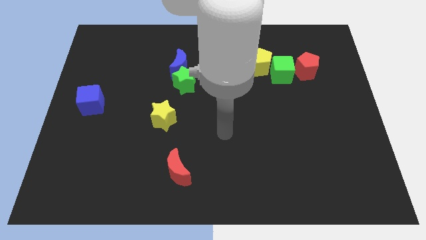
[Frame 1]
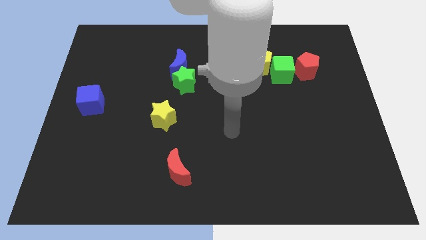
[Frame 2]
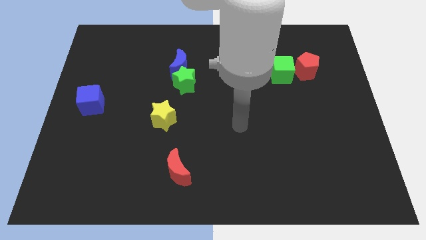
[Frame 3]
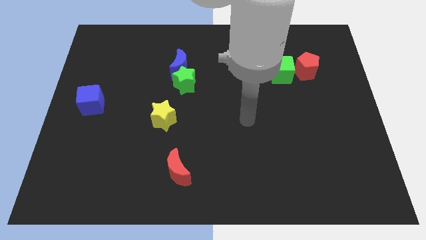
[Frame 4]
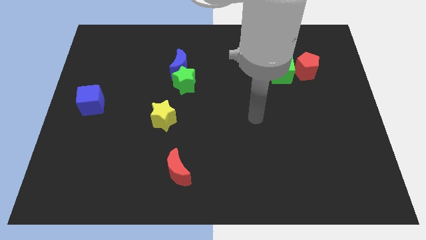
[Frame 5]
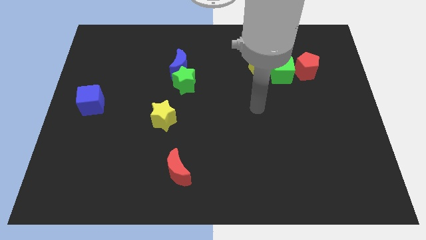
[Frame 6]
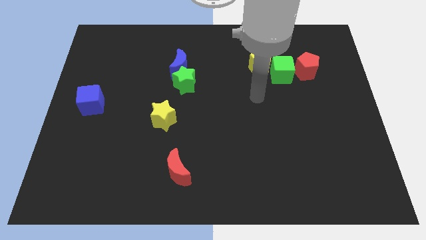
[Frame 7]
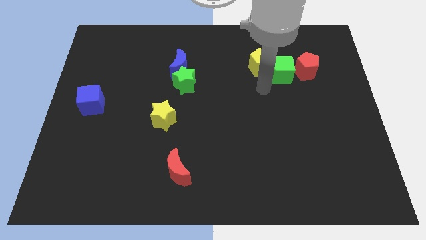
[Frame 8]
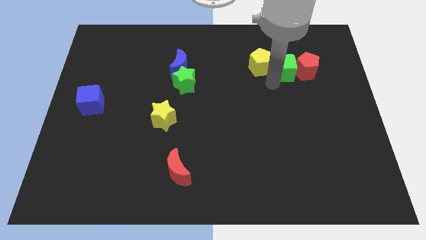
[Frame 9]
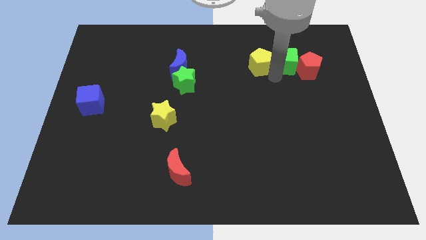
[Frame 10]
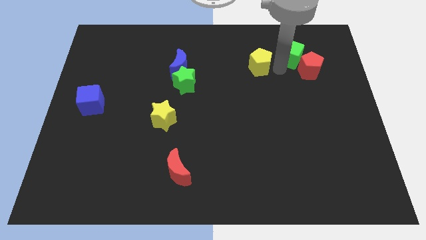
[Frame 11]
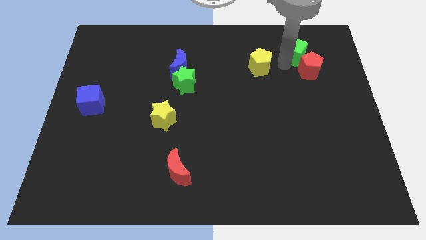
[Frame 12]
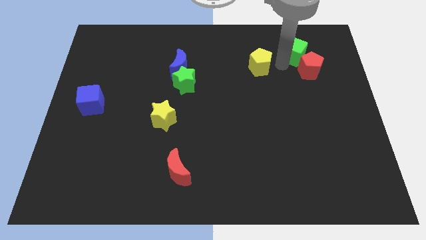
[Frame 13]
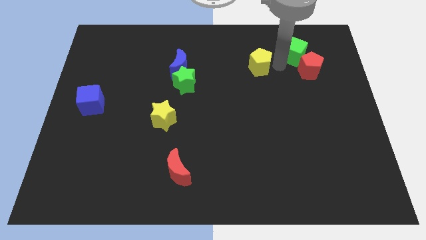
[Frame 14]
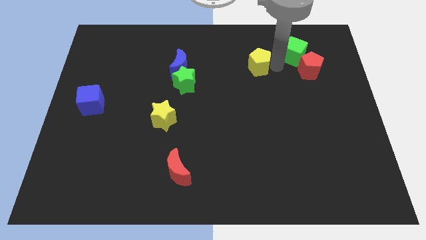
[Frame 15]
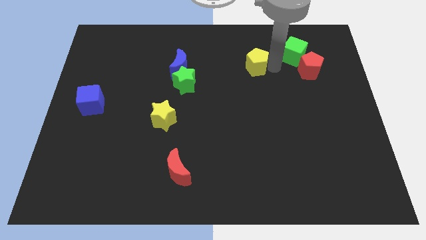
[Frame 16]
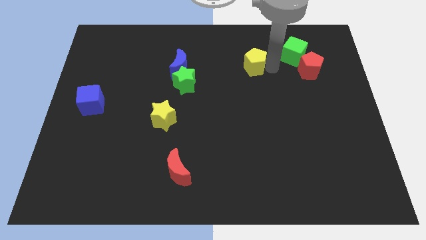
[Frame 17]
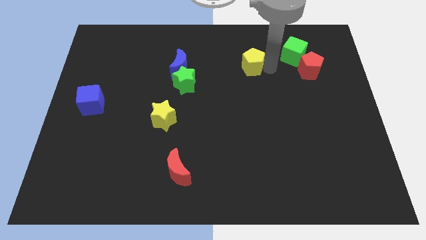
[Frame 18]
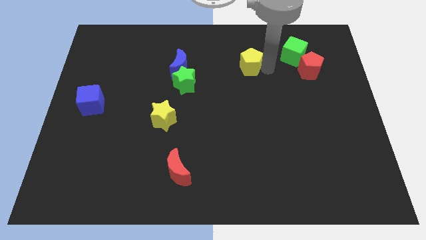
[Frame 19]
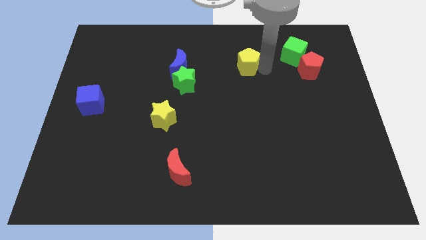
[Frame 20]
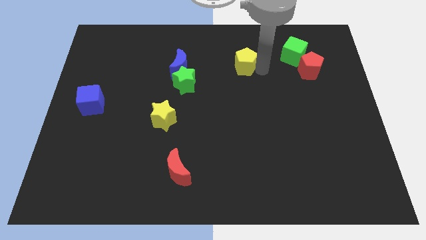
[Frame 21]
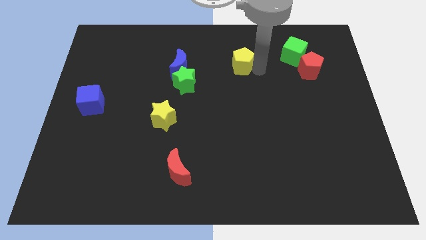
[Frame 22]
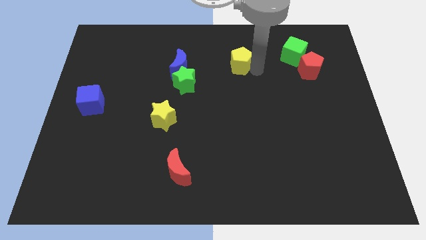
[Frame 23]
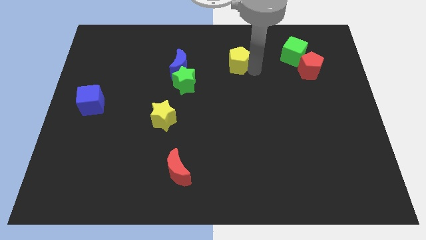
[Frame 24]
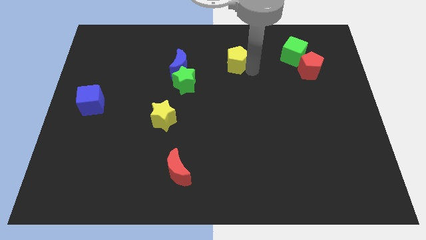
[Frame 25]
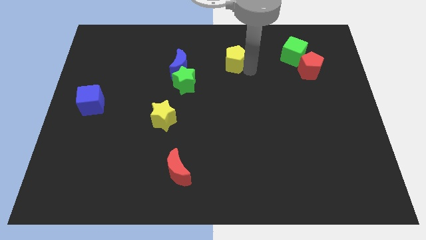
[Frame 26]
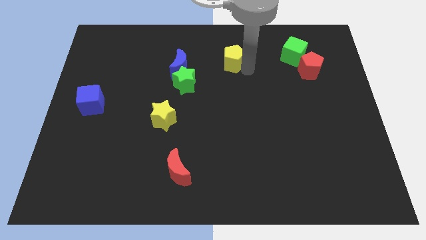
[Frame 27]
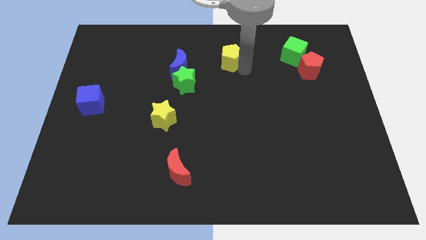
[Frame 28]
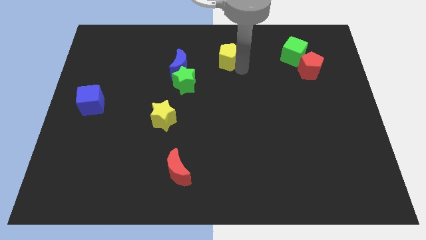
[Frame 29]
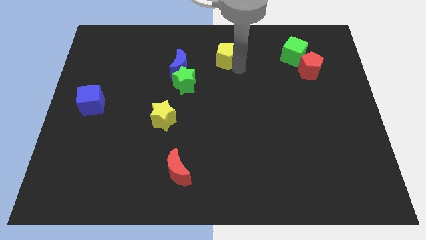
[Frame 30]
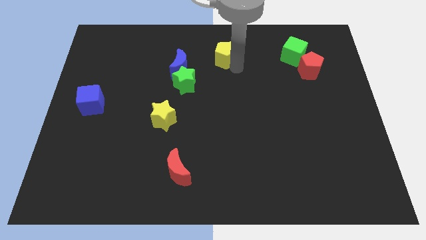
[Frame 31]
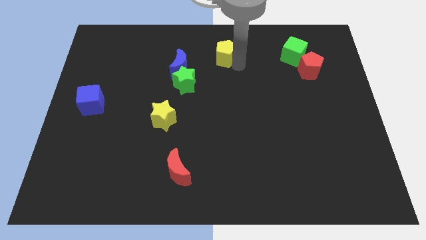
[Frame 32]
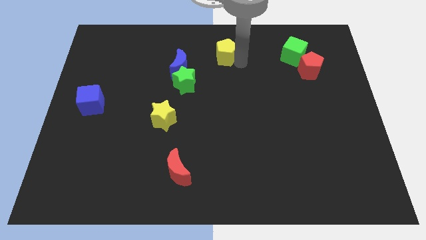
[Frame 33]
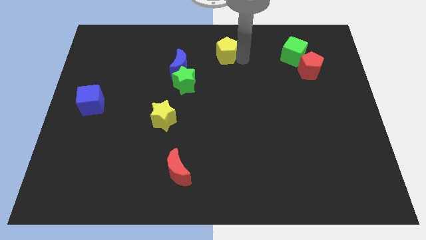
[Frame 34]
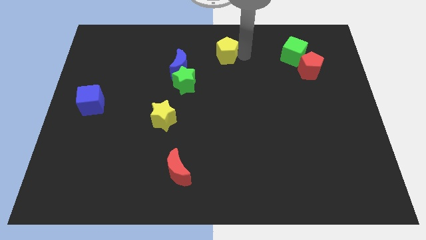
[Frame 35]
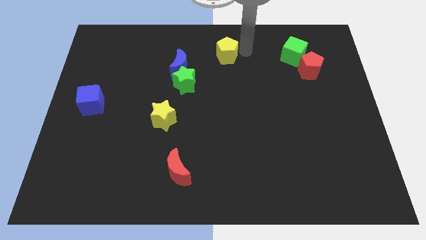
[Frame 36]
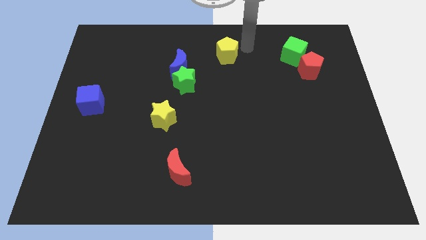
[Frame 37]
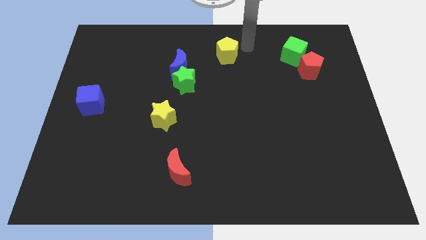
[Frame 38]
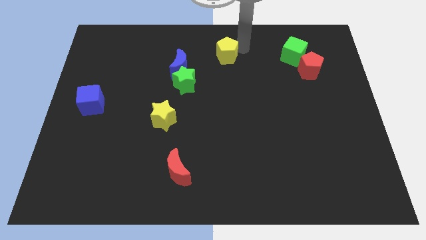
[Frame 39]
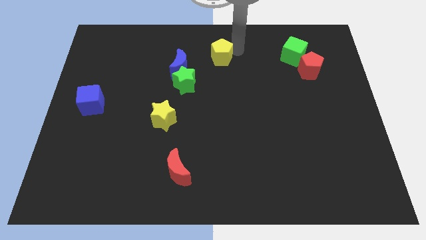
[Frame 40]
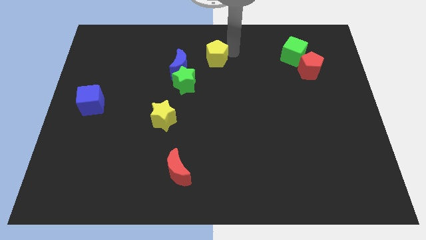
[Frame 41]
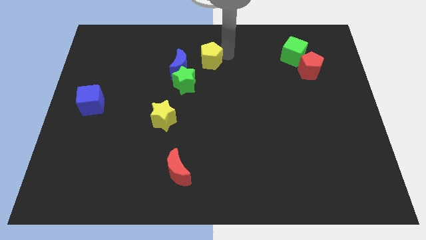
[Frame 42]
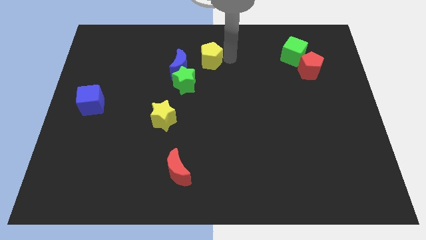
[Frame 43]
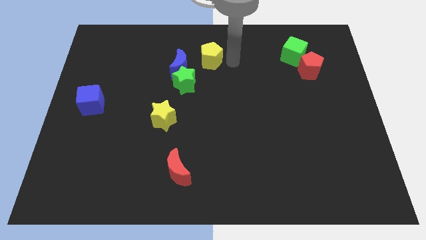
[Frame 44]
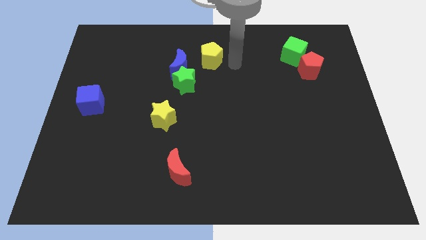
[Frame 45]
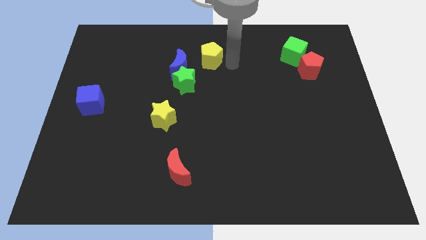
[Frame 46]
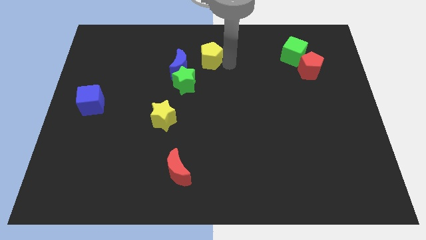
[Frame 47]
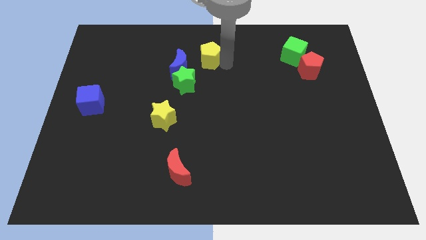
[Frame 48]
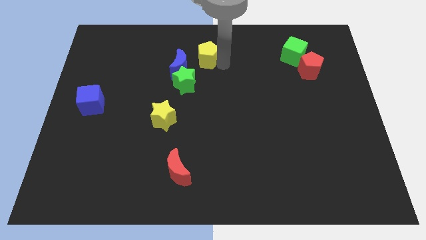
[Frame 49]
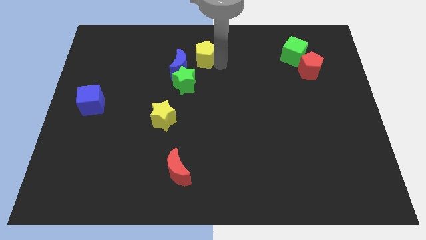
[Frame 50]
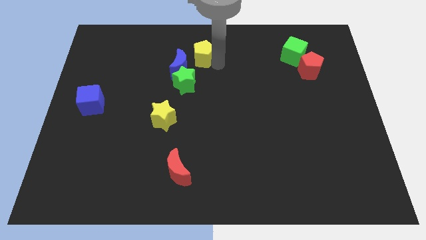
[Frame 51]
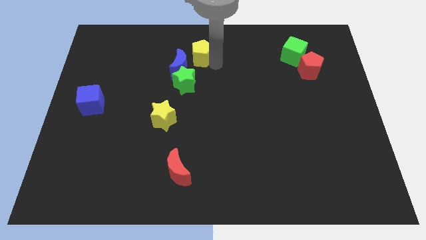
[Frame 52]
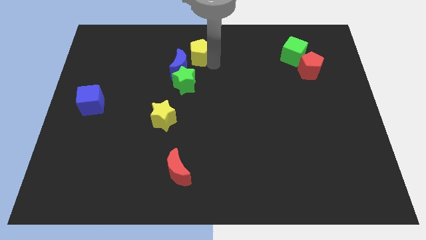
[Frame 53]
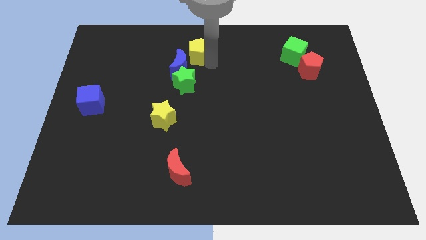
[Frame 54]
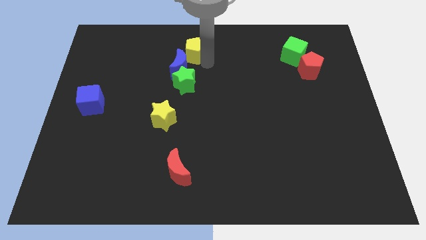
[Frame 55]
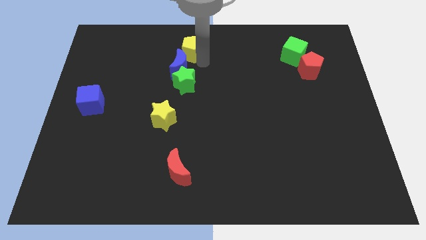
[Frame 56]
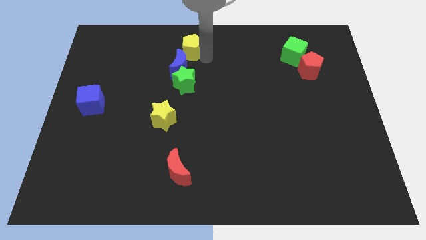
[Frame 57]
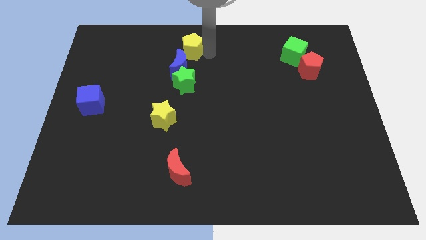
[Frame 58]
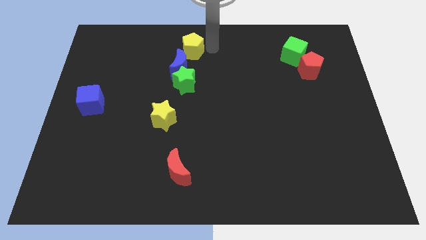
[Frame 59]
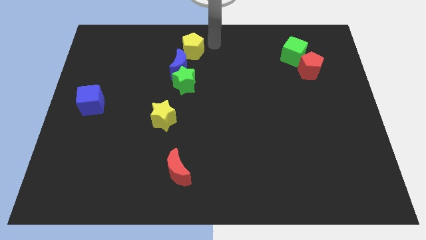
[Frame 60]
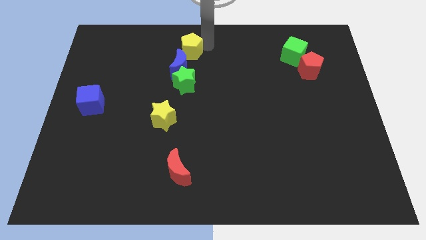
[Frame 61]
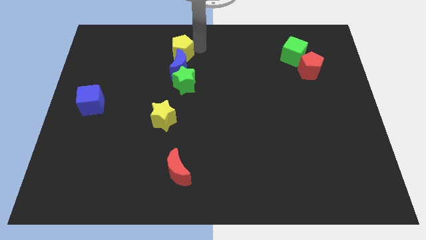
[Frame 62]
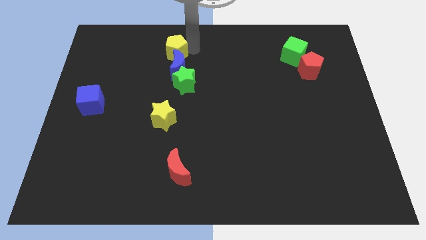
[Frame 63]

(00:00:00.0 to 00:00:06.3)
push the yellow pentagon left

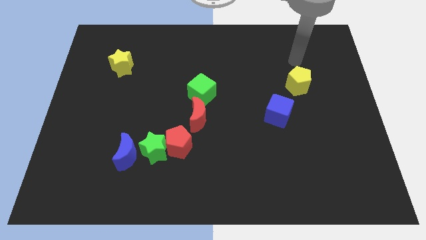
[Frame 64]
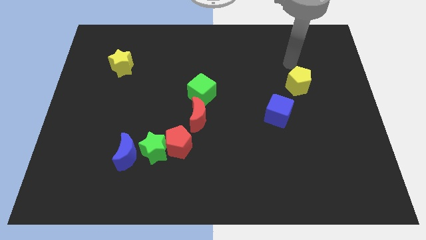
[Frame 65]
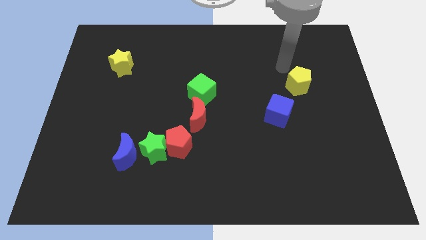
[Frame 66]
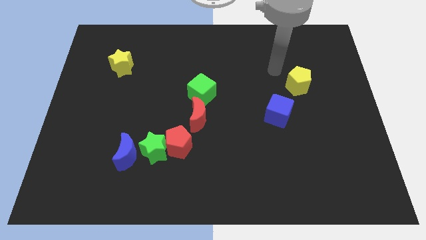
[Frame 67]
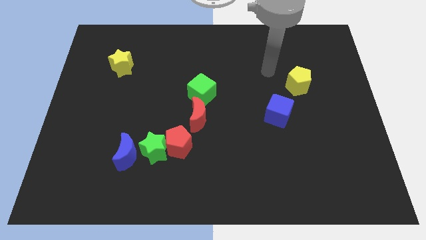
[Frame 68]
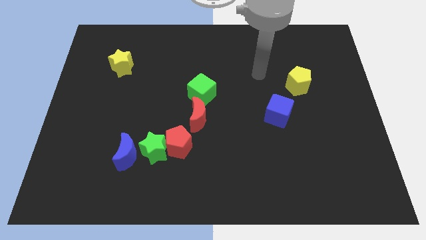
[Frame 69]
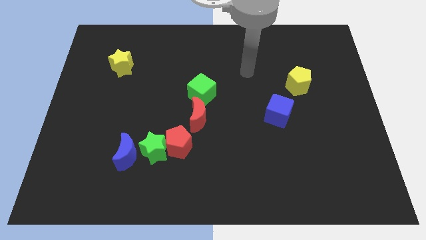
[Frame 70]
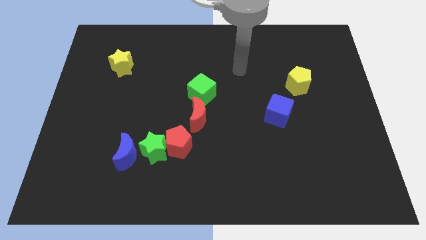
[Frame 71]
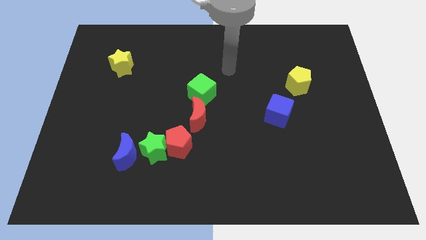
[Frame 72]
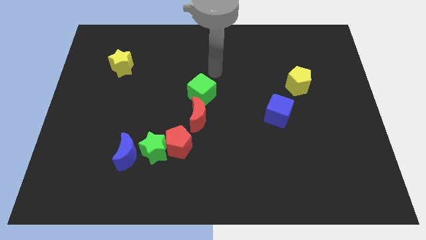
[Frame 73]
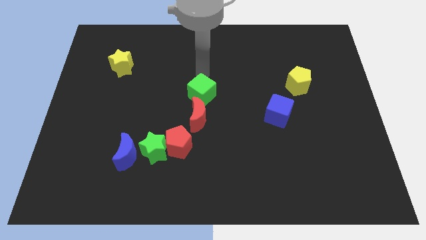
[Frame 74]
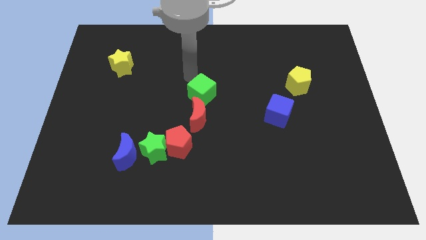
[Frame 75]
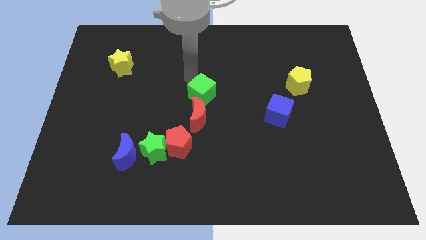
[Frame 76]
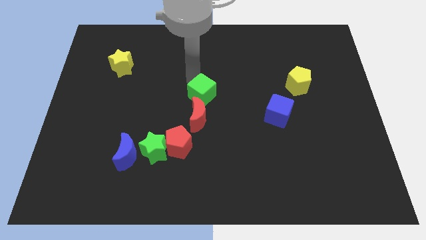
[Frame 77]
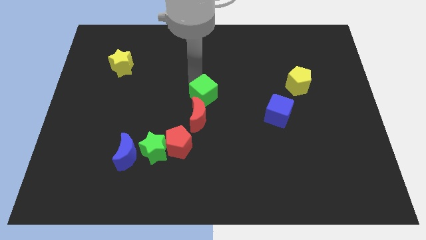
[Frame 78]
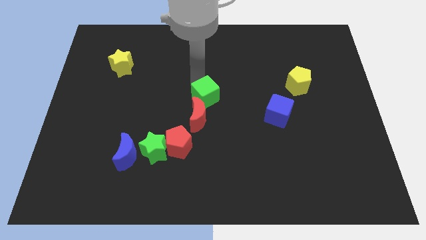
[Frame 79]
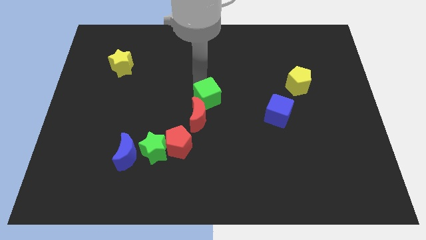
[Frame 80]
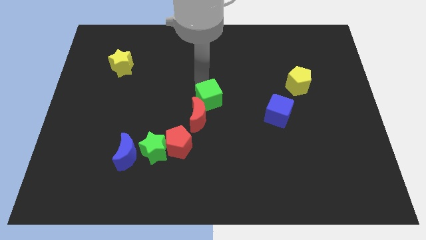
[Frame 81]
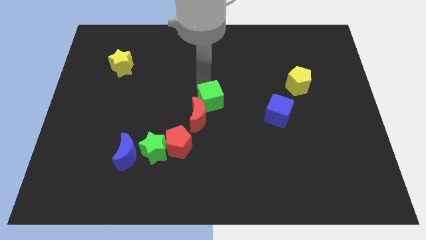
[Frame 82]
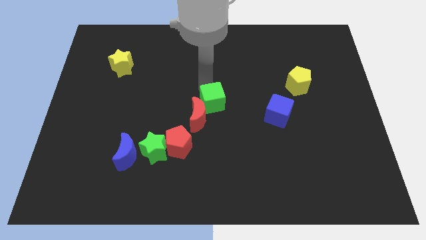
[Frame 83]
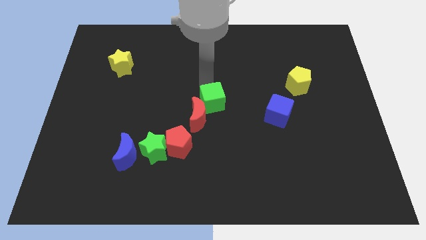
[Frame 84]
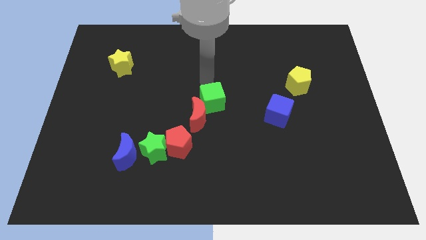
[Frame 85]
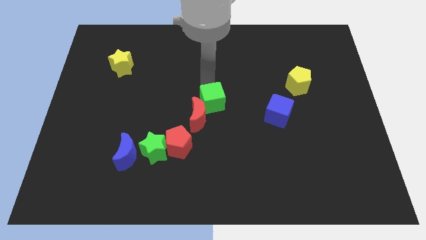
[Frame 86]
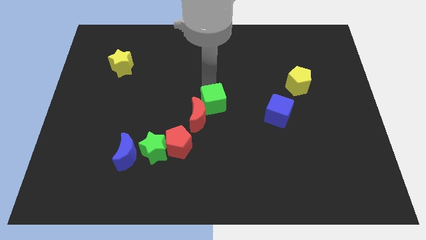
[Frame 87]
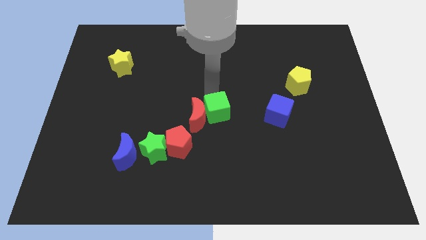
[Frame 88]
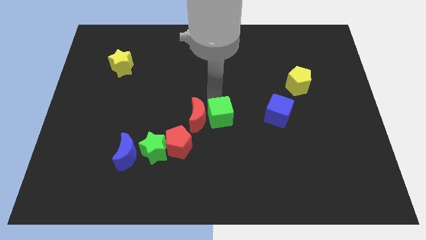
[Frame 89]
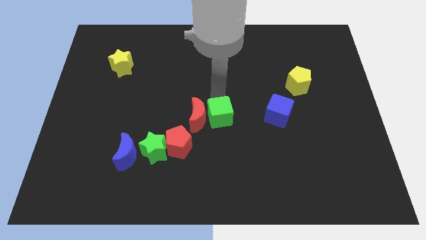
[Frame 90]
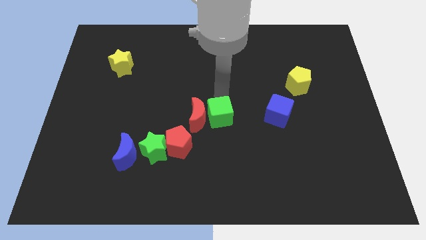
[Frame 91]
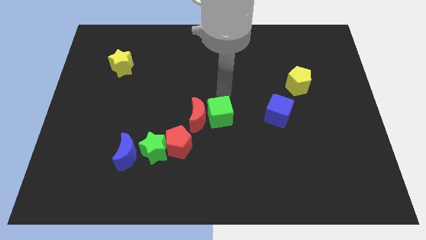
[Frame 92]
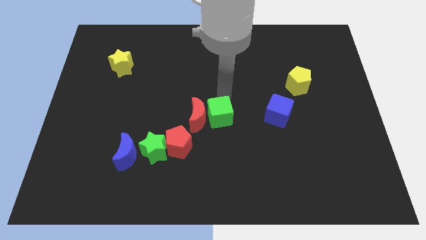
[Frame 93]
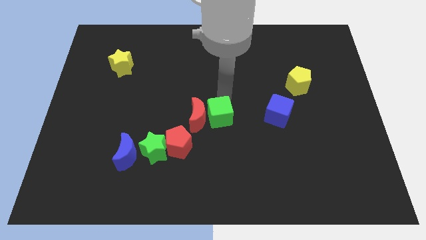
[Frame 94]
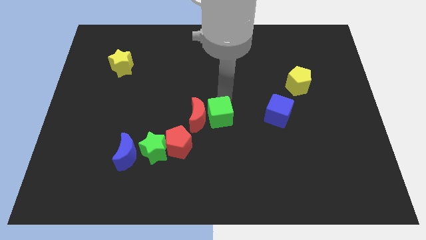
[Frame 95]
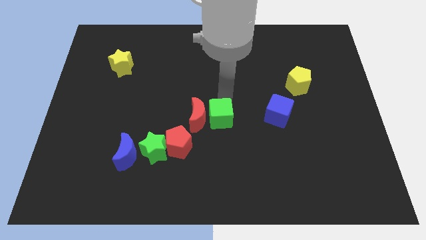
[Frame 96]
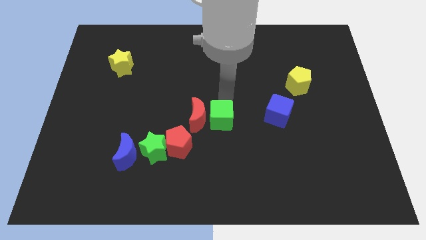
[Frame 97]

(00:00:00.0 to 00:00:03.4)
slightly move the green cube down
